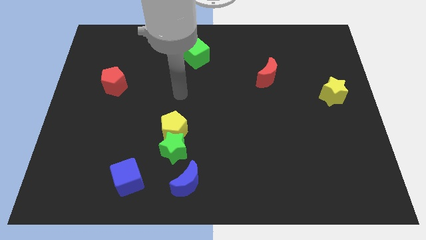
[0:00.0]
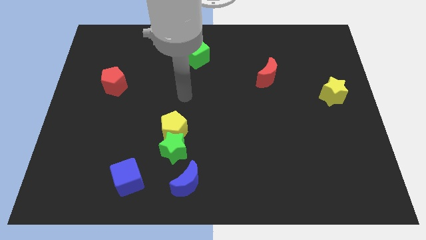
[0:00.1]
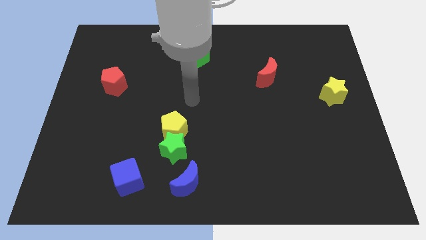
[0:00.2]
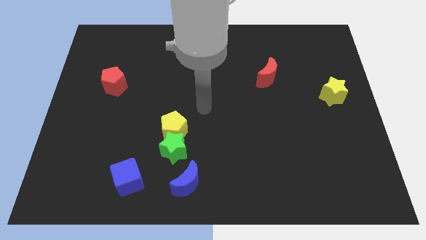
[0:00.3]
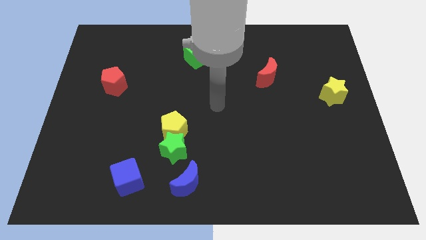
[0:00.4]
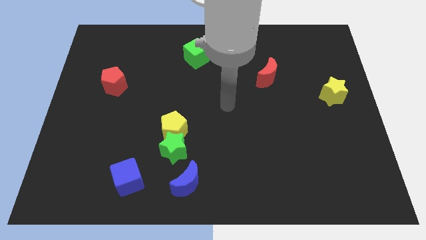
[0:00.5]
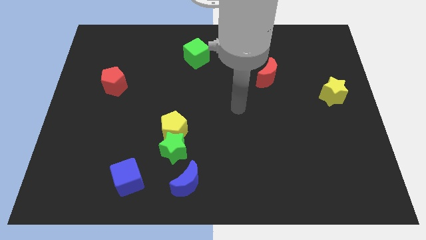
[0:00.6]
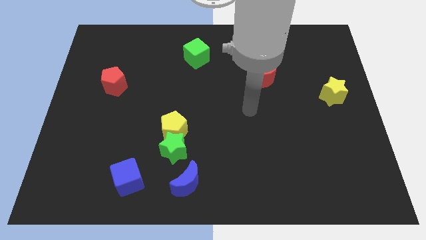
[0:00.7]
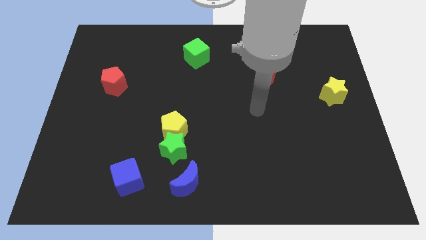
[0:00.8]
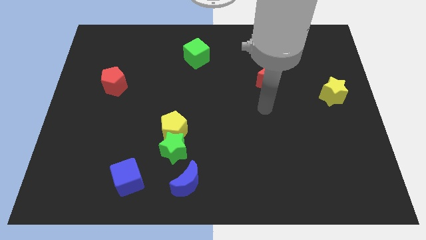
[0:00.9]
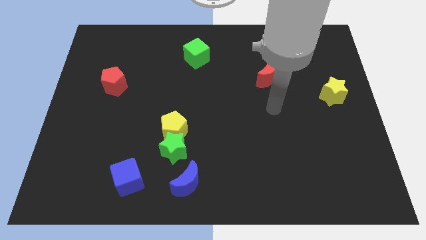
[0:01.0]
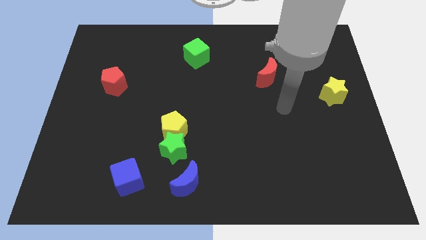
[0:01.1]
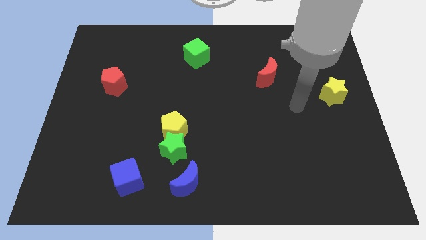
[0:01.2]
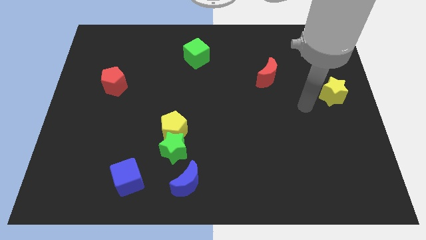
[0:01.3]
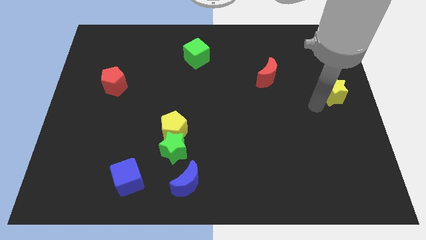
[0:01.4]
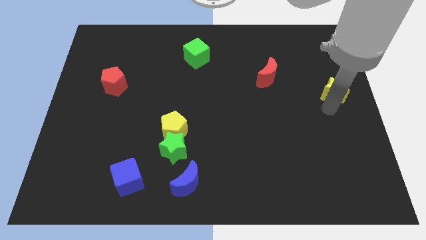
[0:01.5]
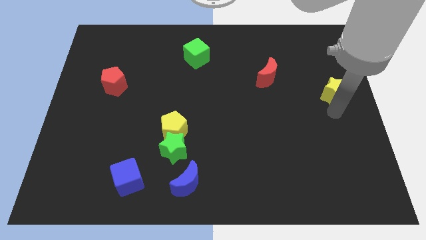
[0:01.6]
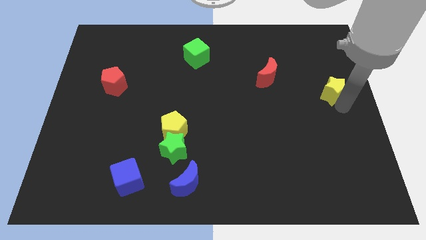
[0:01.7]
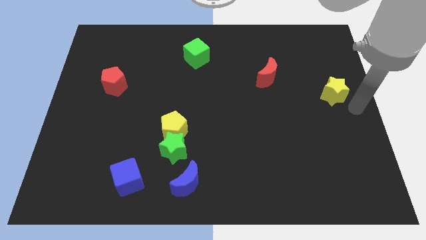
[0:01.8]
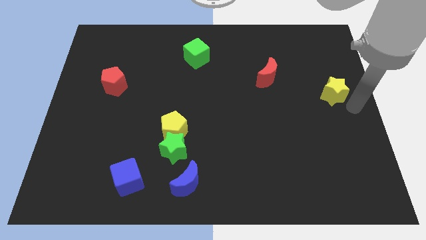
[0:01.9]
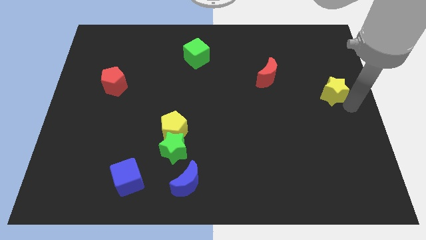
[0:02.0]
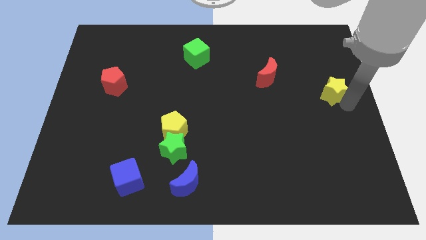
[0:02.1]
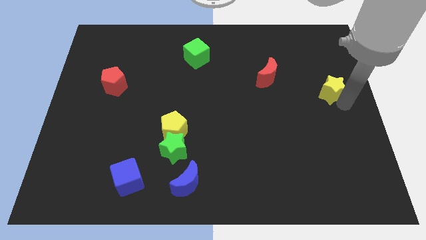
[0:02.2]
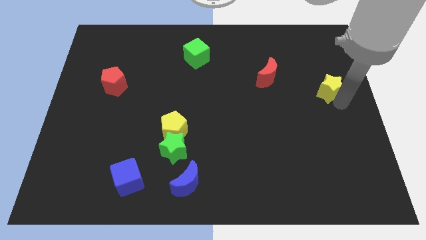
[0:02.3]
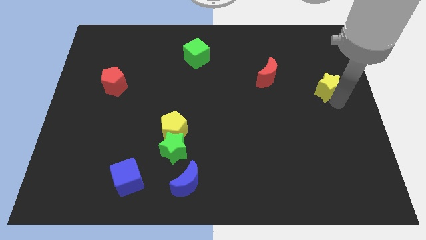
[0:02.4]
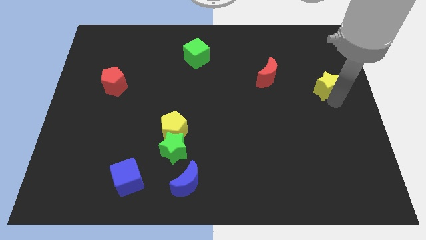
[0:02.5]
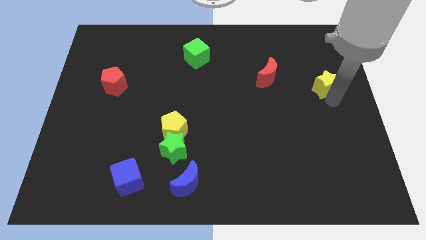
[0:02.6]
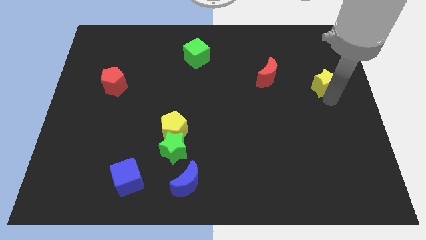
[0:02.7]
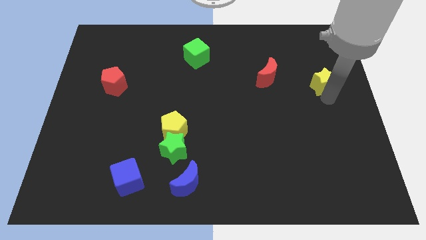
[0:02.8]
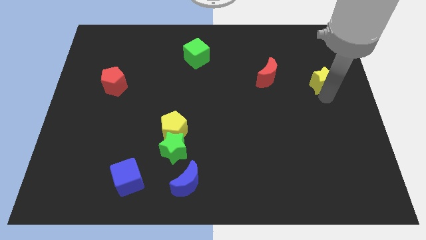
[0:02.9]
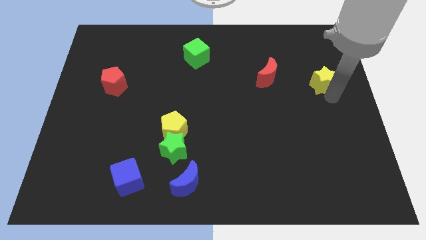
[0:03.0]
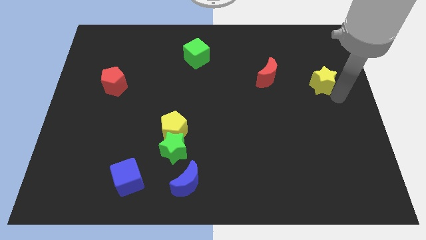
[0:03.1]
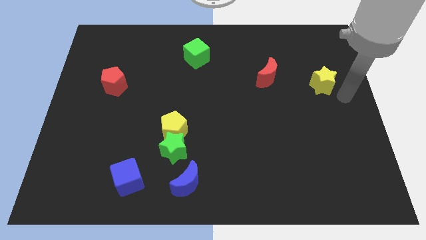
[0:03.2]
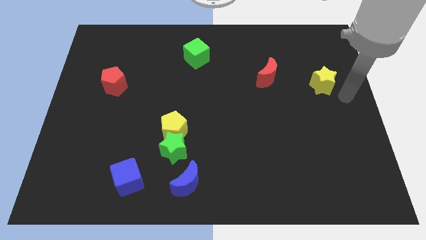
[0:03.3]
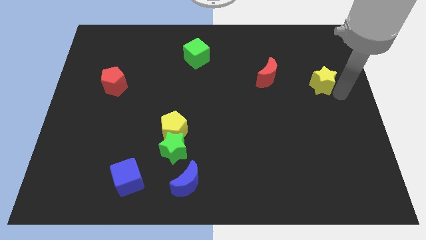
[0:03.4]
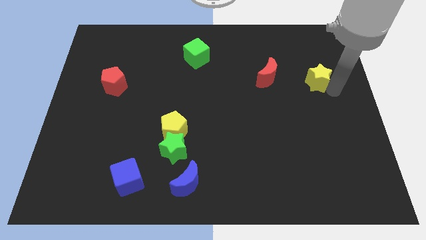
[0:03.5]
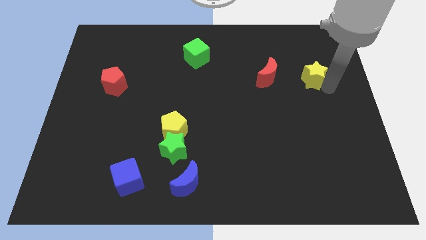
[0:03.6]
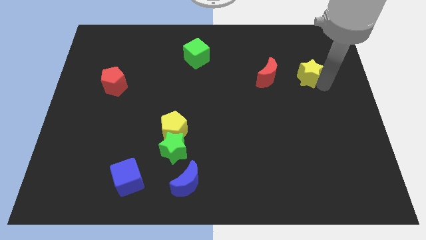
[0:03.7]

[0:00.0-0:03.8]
push the yellow star upwards and left slightly

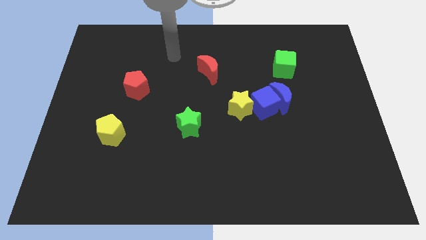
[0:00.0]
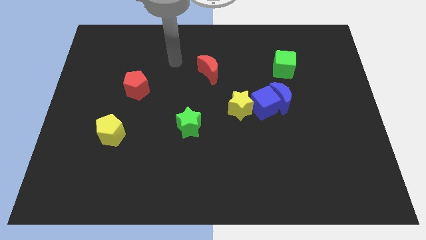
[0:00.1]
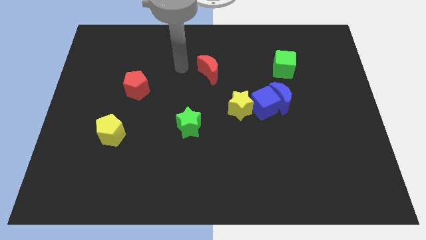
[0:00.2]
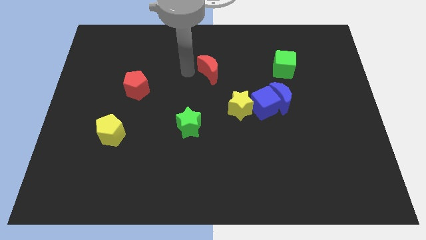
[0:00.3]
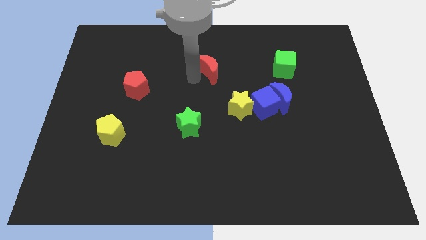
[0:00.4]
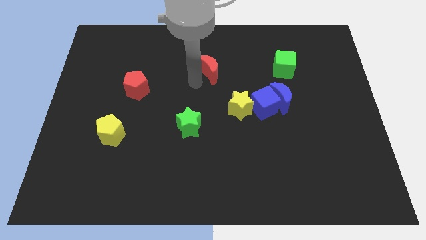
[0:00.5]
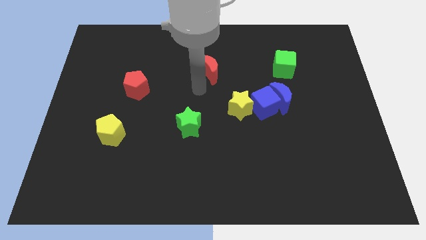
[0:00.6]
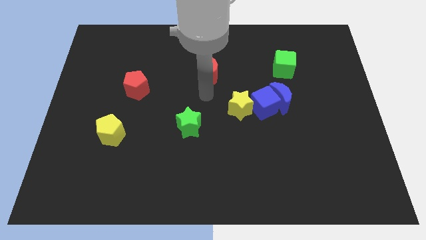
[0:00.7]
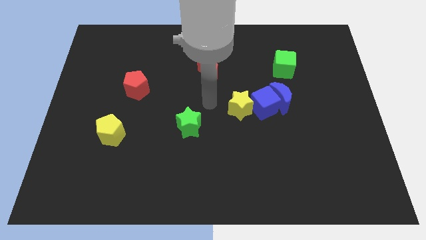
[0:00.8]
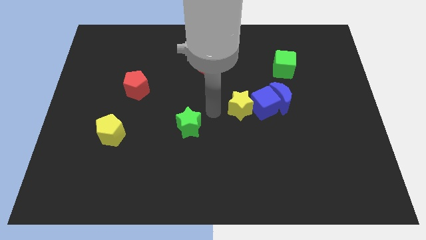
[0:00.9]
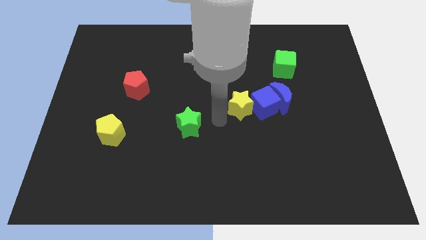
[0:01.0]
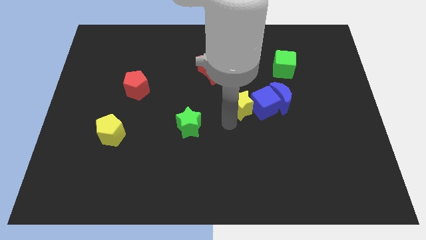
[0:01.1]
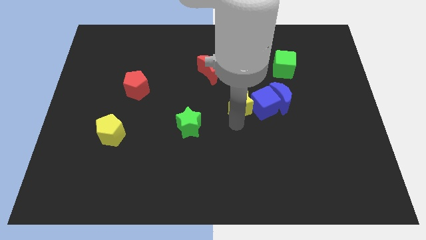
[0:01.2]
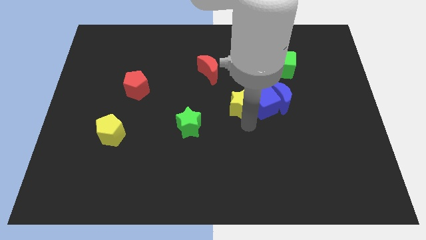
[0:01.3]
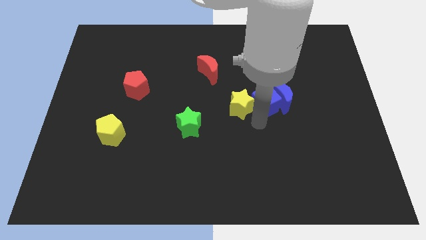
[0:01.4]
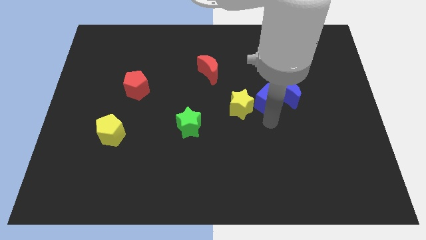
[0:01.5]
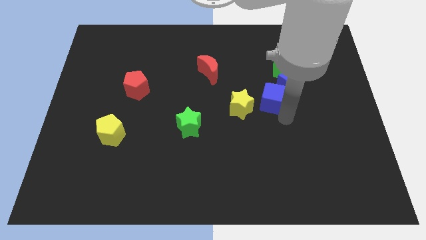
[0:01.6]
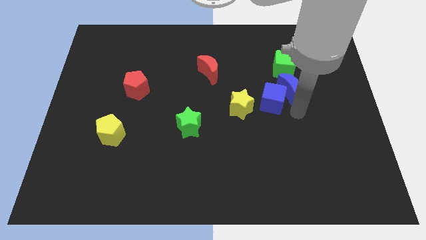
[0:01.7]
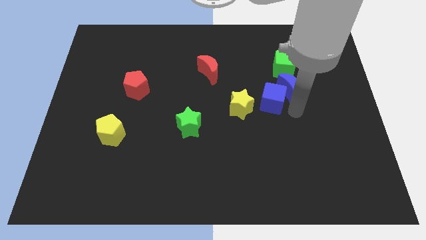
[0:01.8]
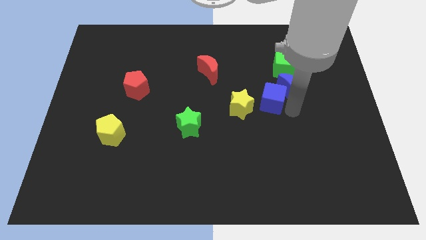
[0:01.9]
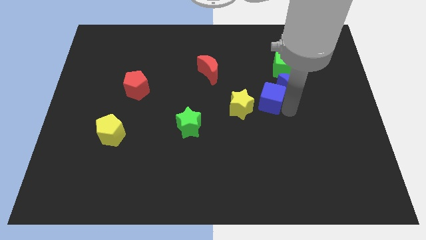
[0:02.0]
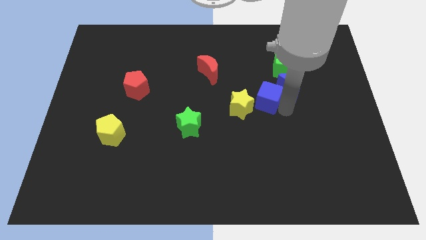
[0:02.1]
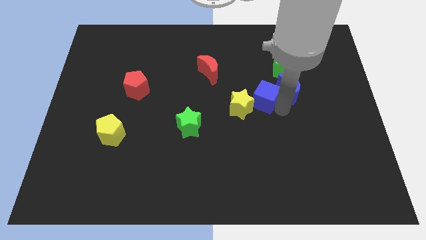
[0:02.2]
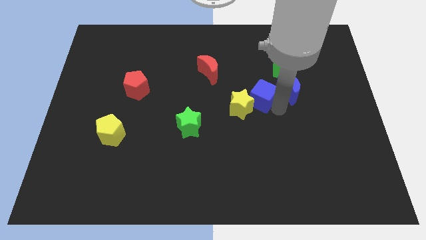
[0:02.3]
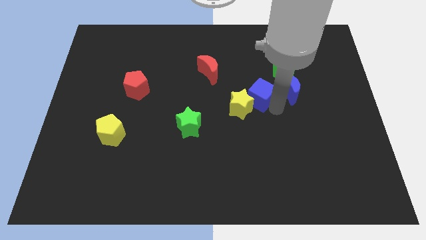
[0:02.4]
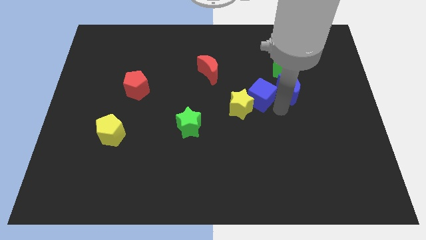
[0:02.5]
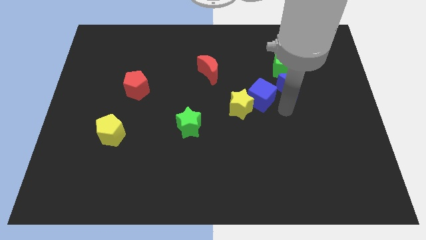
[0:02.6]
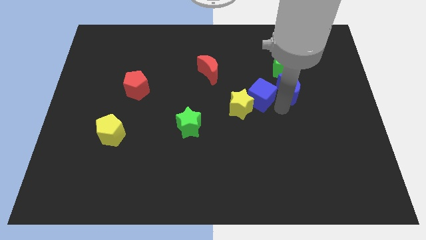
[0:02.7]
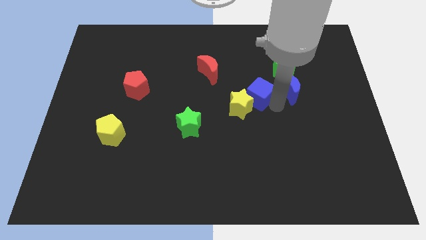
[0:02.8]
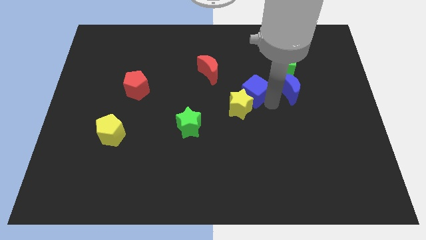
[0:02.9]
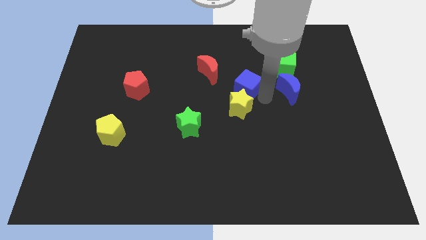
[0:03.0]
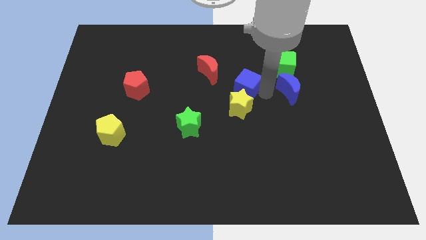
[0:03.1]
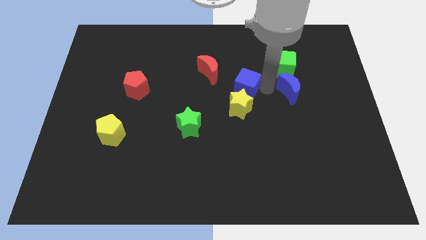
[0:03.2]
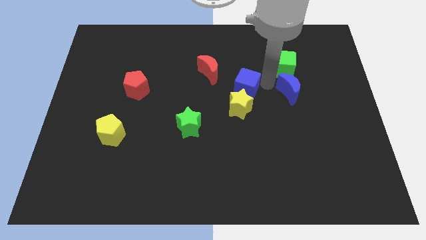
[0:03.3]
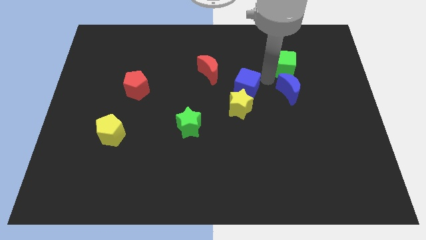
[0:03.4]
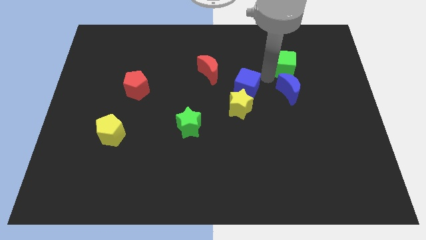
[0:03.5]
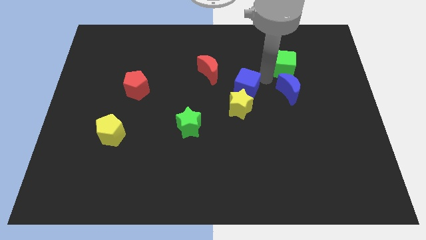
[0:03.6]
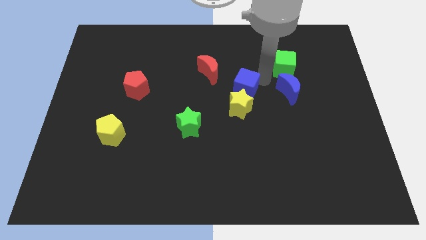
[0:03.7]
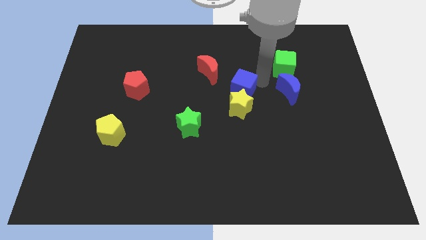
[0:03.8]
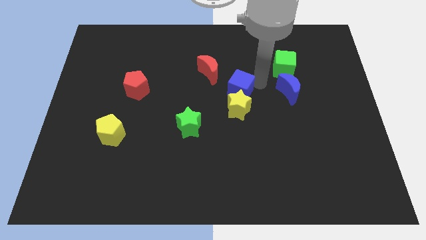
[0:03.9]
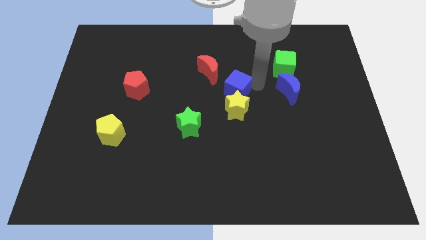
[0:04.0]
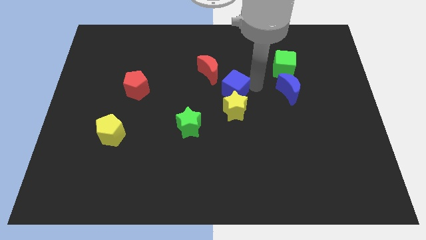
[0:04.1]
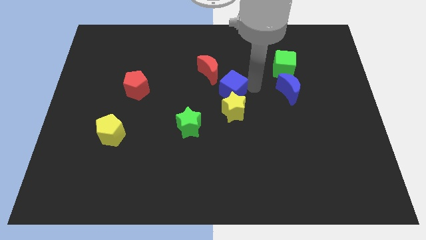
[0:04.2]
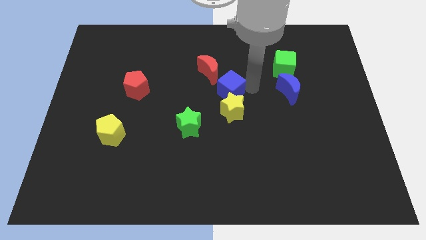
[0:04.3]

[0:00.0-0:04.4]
push the blue cube to the left somewhat

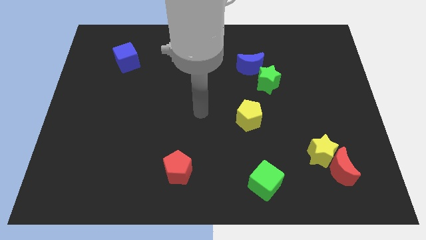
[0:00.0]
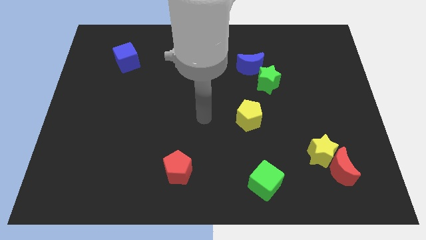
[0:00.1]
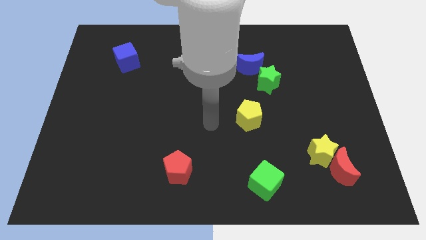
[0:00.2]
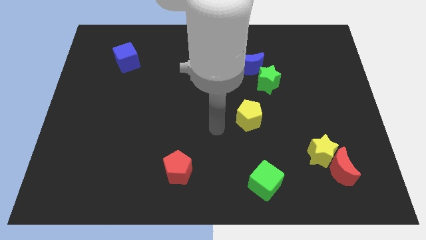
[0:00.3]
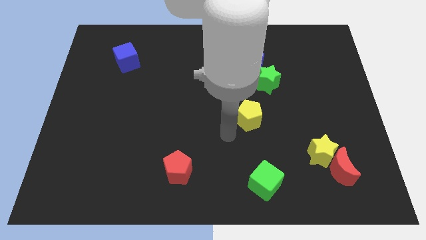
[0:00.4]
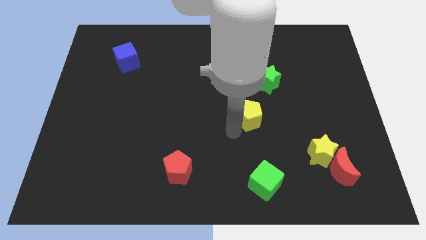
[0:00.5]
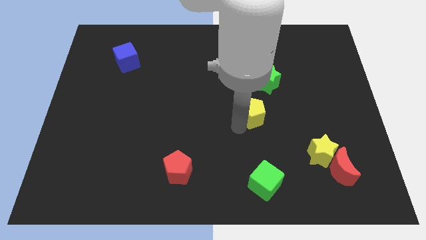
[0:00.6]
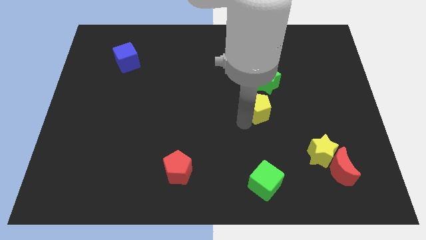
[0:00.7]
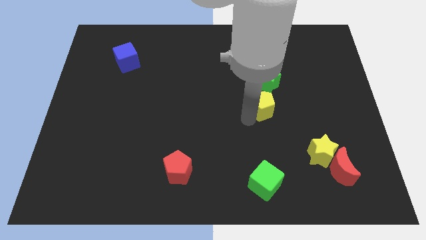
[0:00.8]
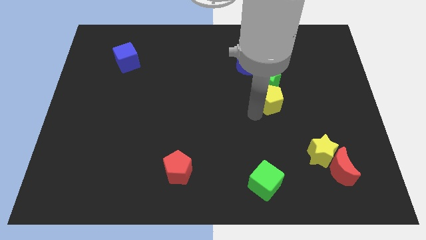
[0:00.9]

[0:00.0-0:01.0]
slightly slide the yellow pentagon upwards and then to the right
